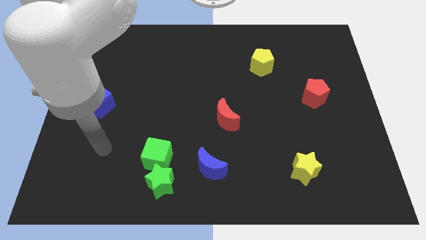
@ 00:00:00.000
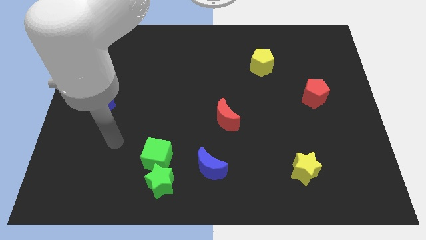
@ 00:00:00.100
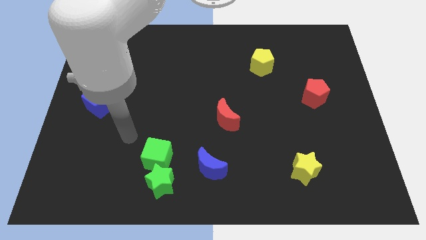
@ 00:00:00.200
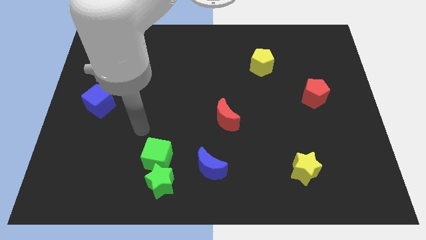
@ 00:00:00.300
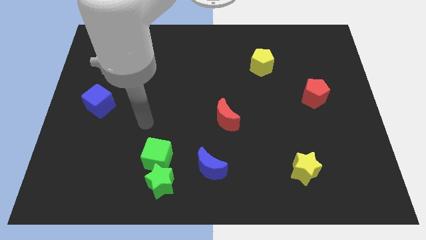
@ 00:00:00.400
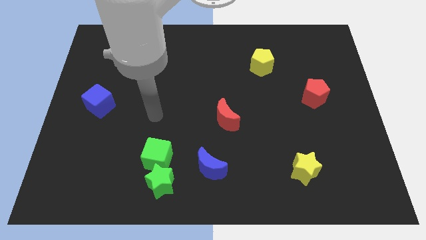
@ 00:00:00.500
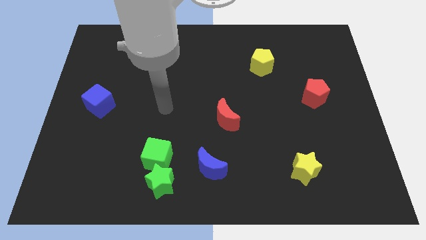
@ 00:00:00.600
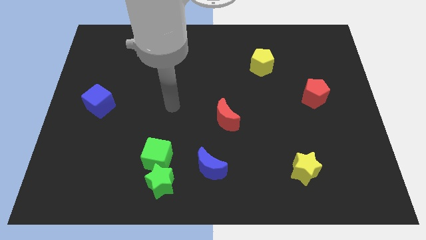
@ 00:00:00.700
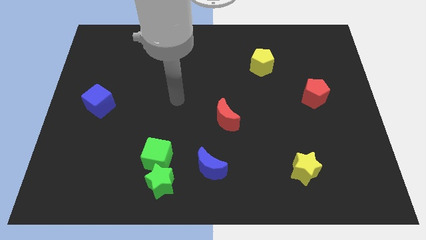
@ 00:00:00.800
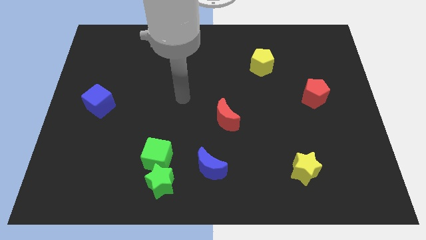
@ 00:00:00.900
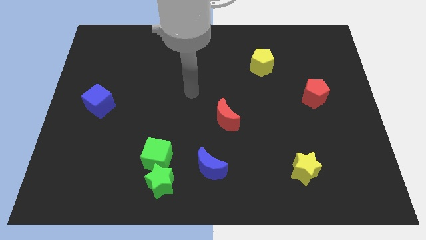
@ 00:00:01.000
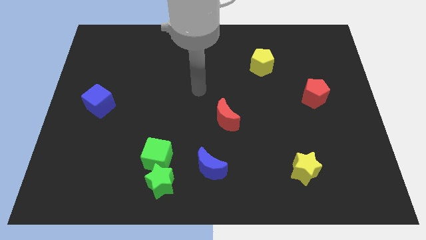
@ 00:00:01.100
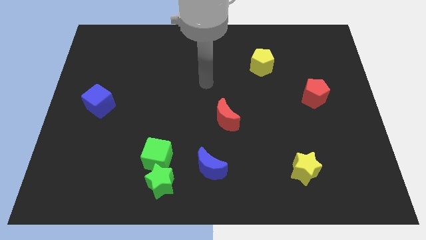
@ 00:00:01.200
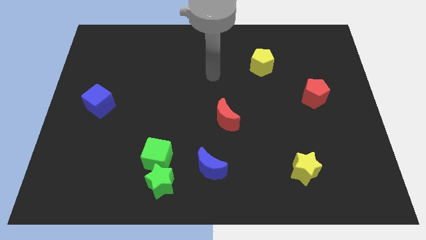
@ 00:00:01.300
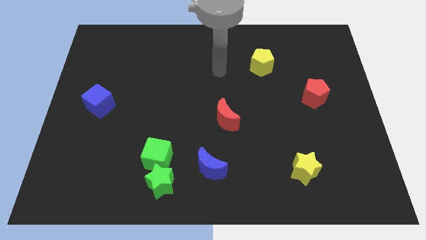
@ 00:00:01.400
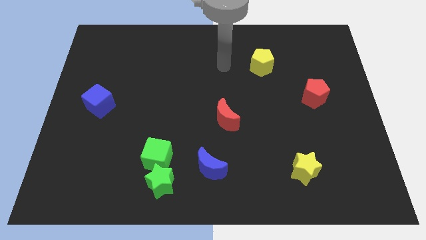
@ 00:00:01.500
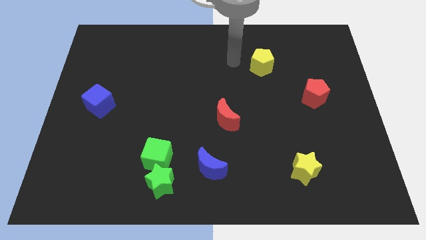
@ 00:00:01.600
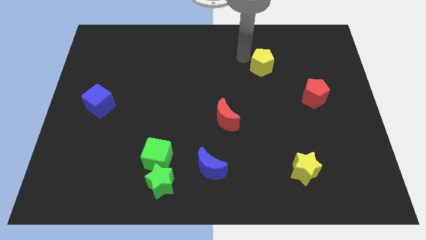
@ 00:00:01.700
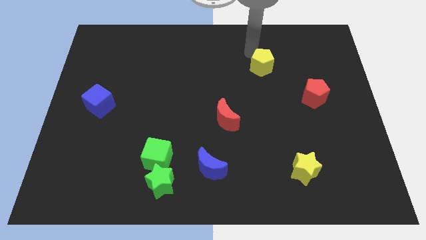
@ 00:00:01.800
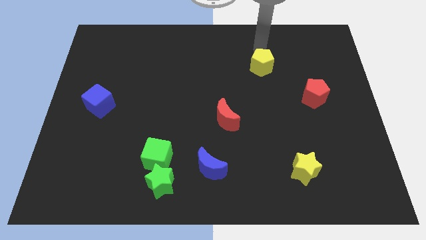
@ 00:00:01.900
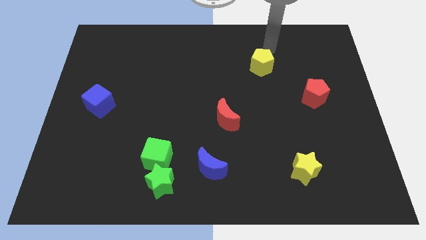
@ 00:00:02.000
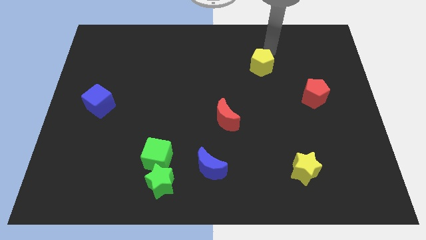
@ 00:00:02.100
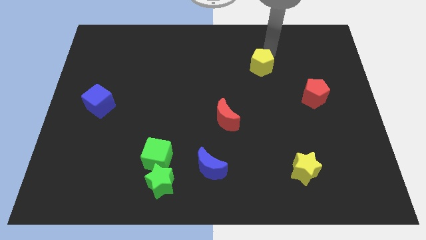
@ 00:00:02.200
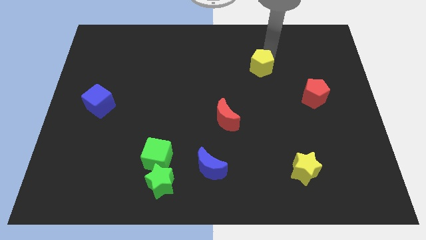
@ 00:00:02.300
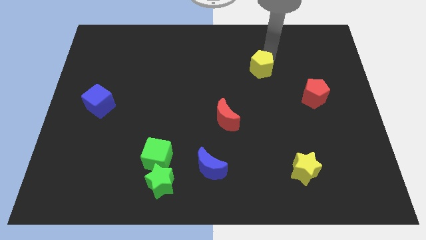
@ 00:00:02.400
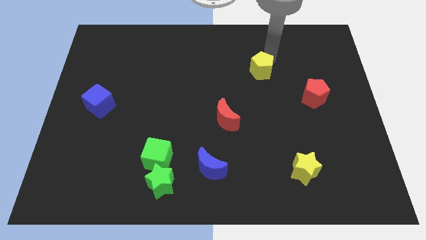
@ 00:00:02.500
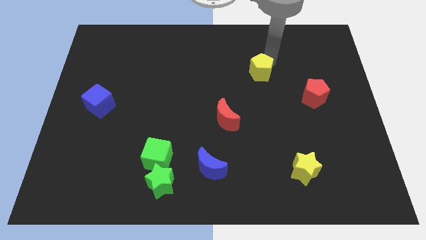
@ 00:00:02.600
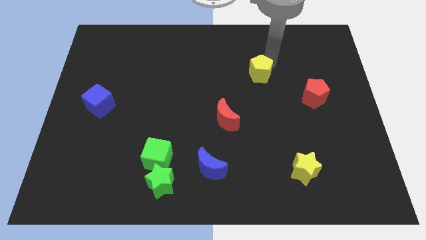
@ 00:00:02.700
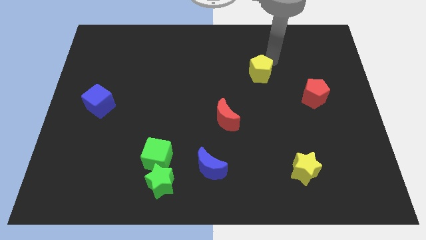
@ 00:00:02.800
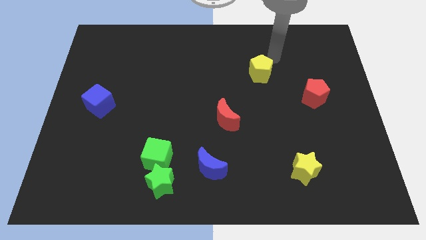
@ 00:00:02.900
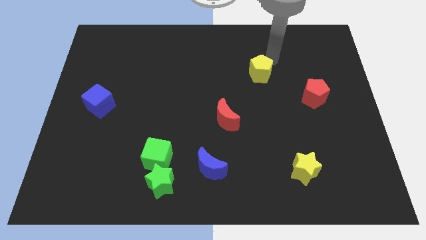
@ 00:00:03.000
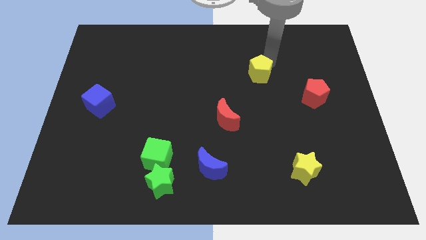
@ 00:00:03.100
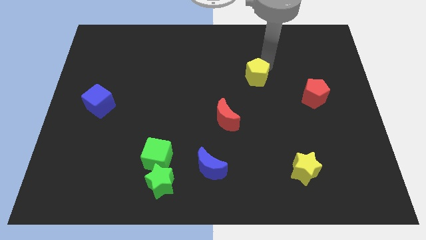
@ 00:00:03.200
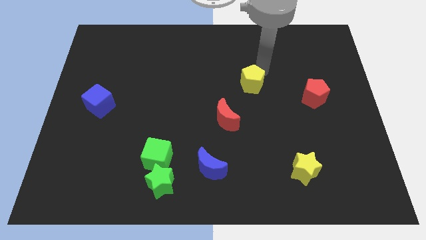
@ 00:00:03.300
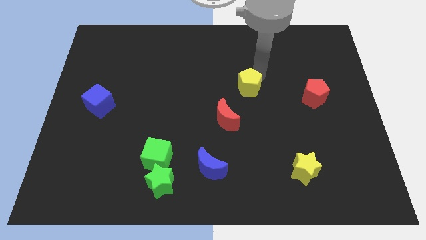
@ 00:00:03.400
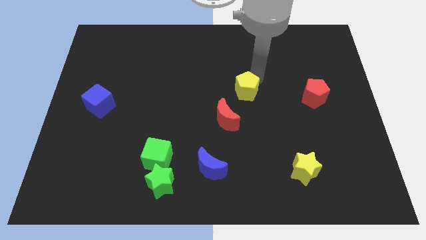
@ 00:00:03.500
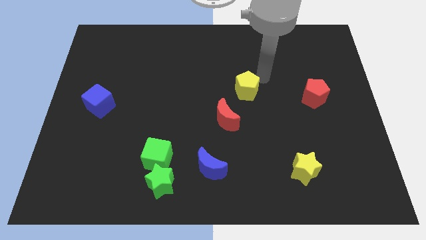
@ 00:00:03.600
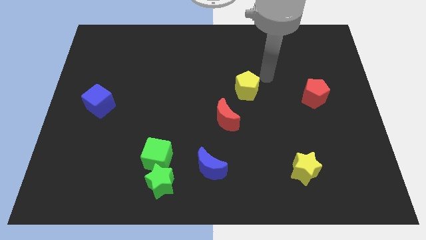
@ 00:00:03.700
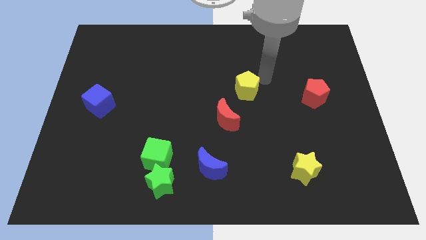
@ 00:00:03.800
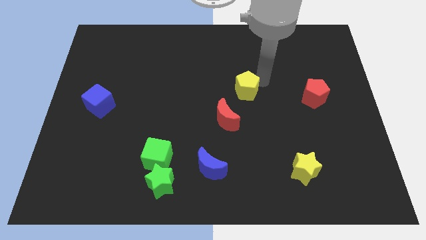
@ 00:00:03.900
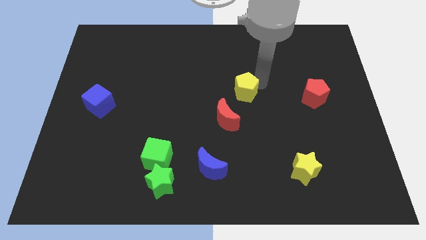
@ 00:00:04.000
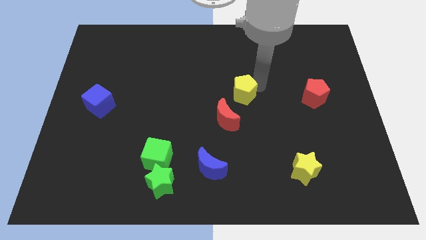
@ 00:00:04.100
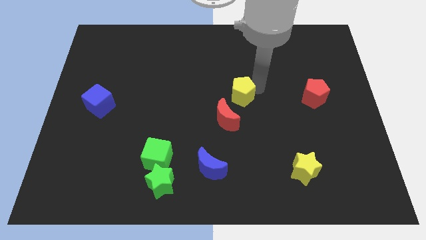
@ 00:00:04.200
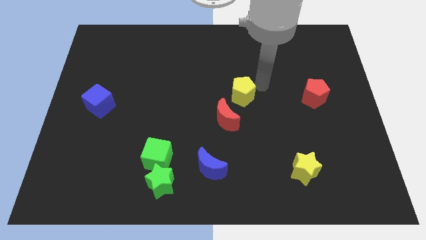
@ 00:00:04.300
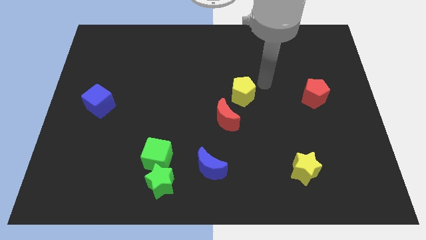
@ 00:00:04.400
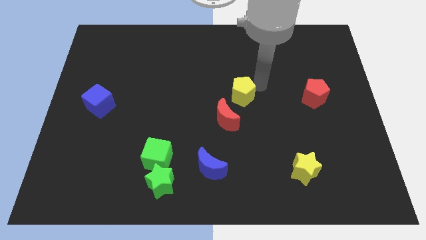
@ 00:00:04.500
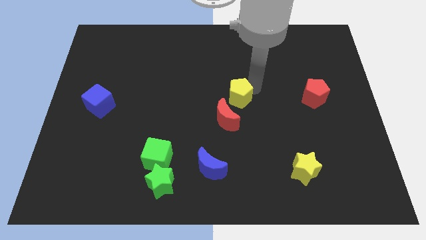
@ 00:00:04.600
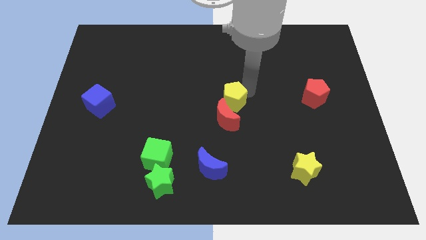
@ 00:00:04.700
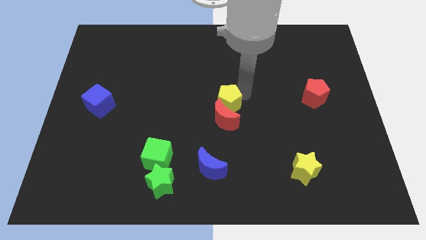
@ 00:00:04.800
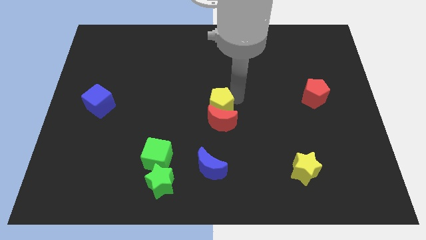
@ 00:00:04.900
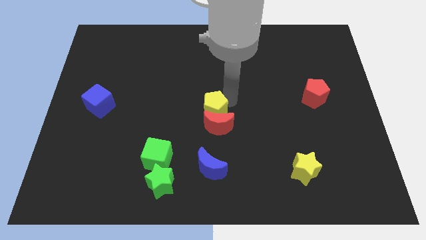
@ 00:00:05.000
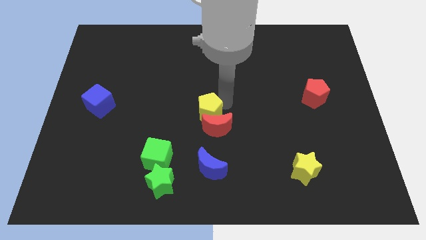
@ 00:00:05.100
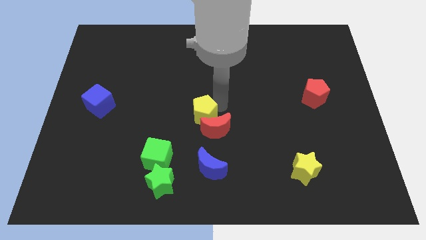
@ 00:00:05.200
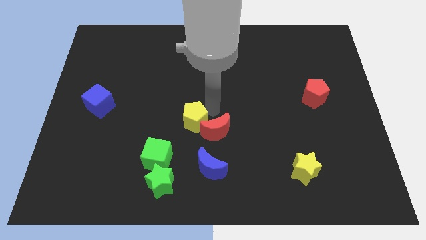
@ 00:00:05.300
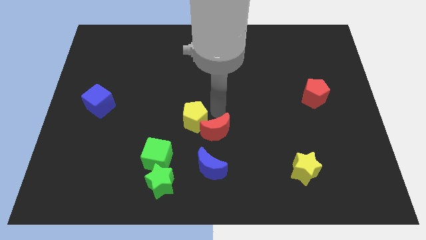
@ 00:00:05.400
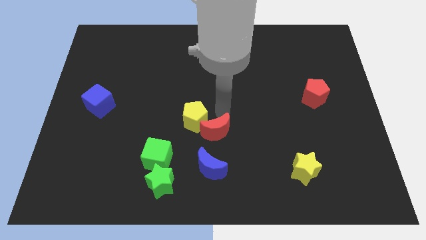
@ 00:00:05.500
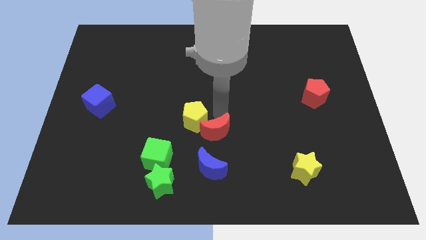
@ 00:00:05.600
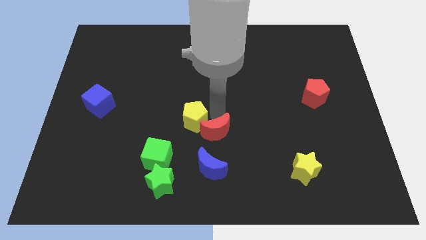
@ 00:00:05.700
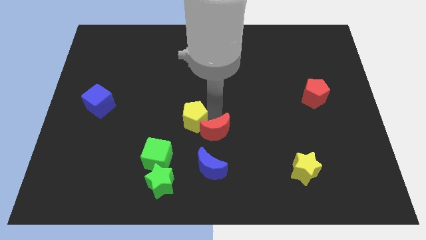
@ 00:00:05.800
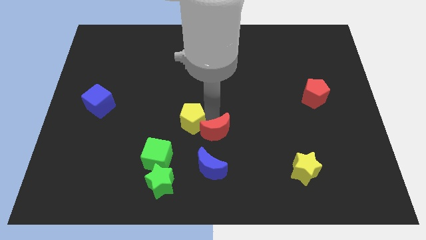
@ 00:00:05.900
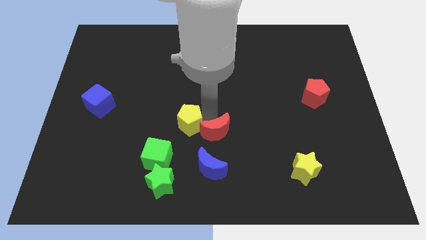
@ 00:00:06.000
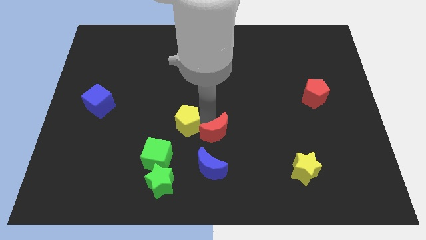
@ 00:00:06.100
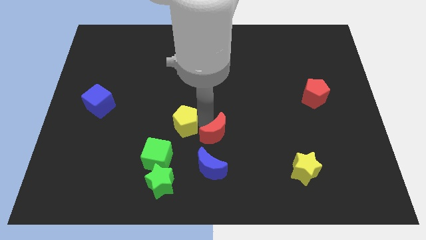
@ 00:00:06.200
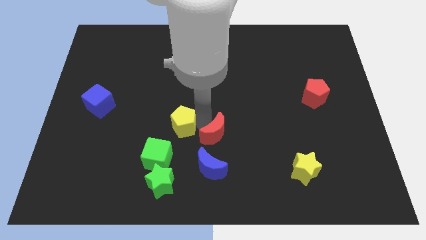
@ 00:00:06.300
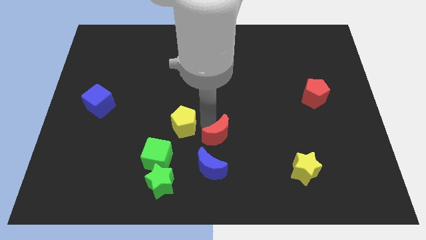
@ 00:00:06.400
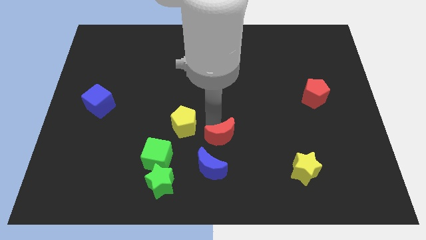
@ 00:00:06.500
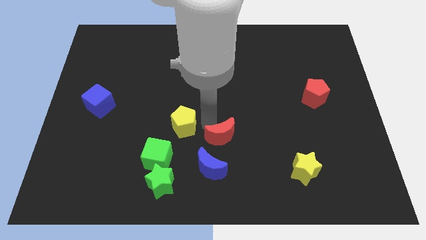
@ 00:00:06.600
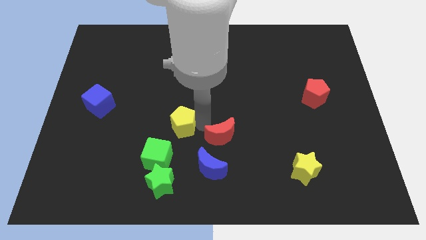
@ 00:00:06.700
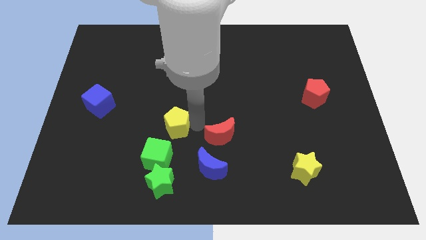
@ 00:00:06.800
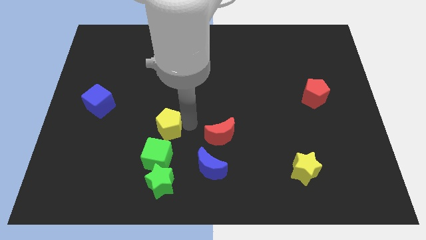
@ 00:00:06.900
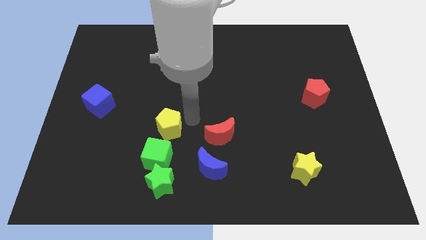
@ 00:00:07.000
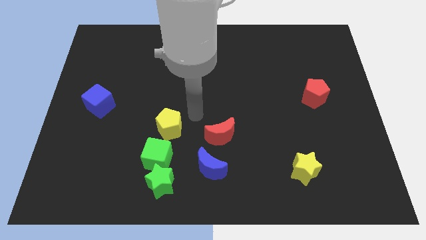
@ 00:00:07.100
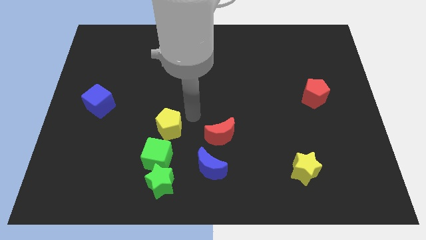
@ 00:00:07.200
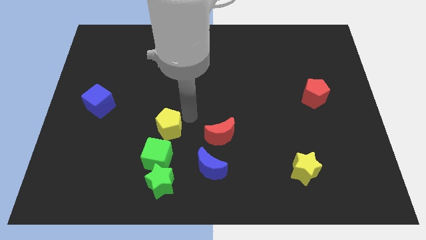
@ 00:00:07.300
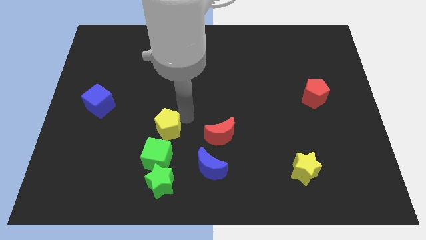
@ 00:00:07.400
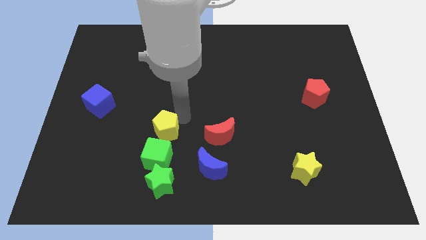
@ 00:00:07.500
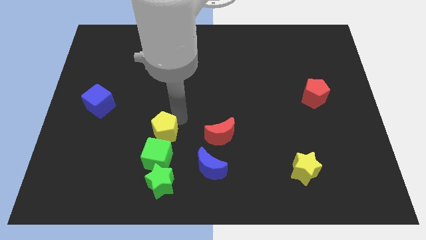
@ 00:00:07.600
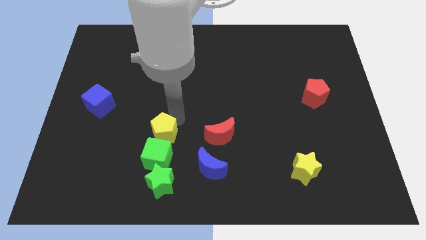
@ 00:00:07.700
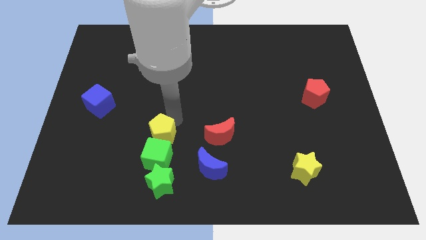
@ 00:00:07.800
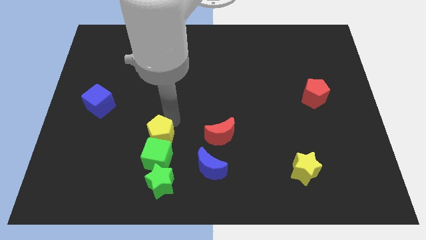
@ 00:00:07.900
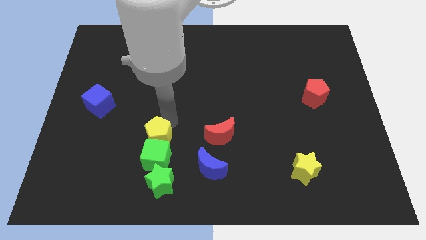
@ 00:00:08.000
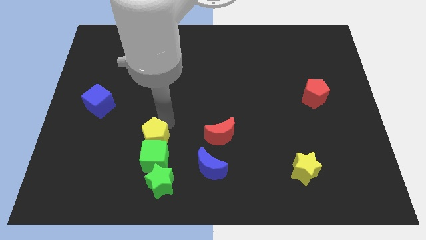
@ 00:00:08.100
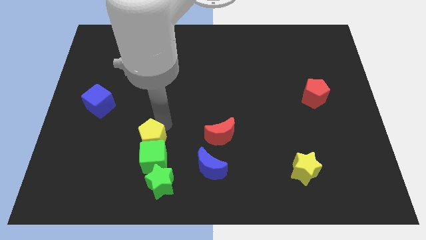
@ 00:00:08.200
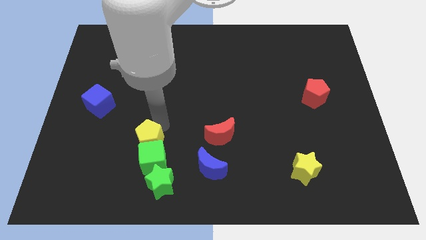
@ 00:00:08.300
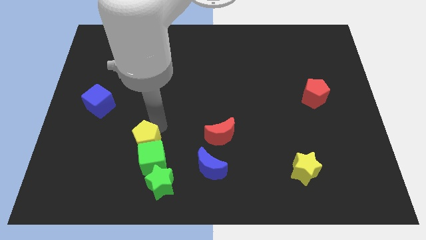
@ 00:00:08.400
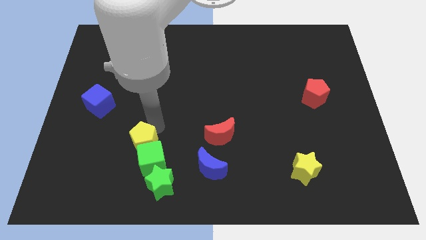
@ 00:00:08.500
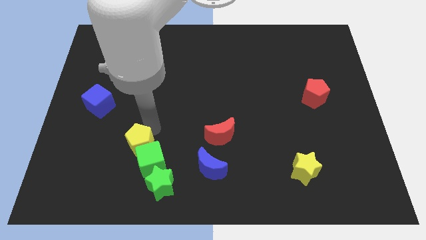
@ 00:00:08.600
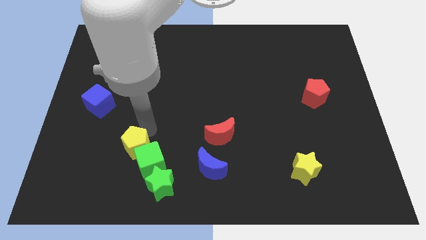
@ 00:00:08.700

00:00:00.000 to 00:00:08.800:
put the yellow pentagon just left of the green cube
